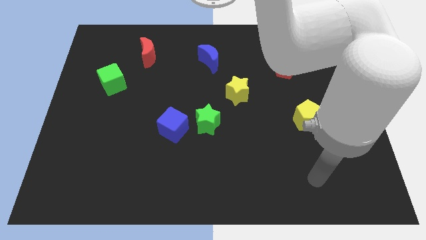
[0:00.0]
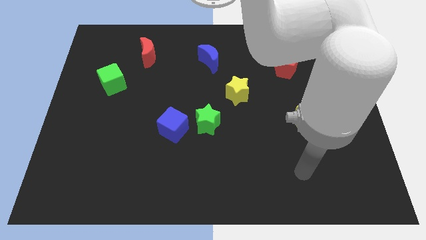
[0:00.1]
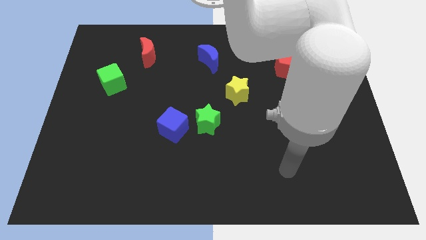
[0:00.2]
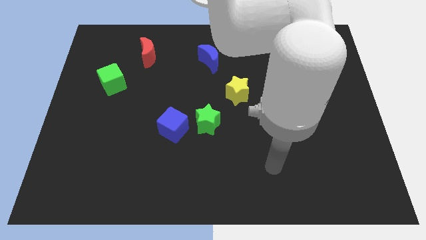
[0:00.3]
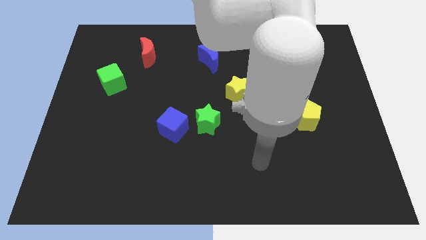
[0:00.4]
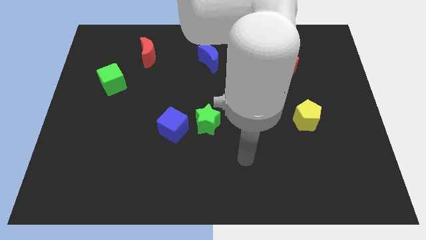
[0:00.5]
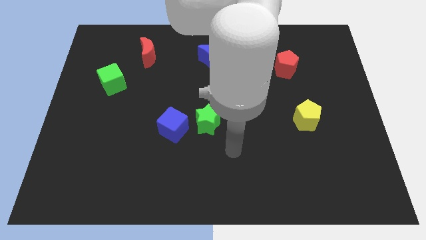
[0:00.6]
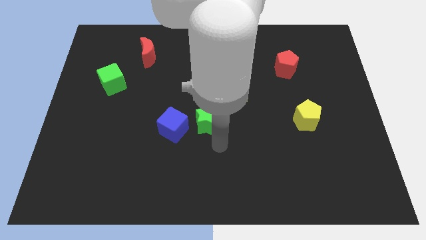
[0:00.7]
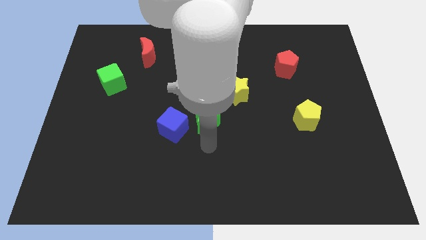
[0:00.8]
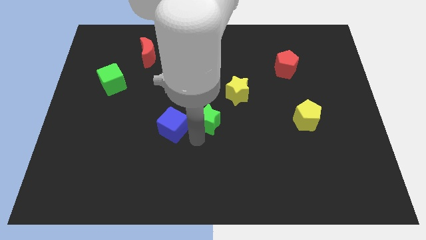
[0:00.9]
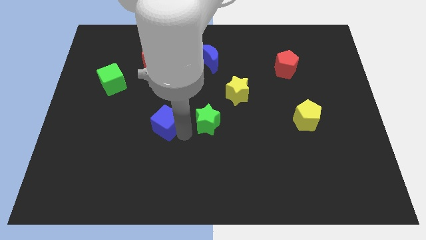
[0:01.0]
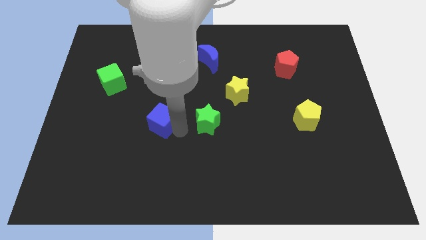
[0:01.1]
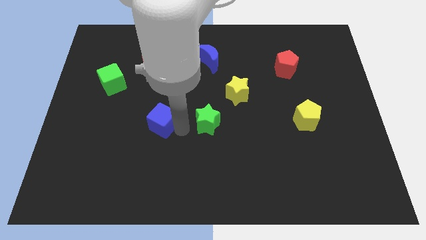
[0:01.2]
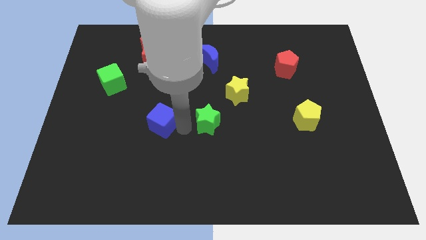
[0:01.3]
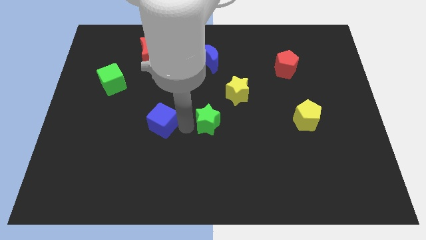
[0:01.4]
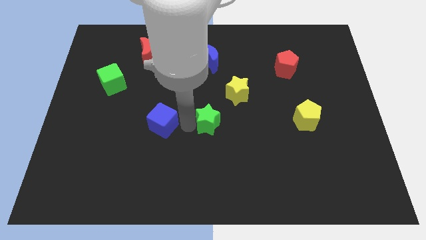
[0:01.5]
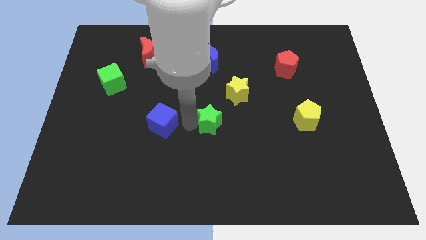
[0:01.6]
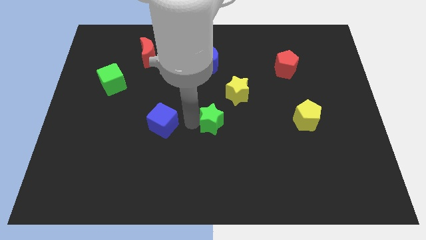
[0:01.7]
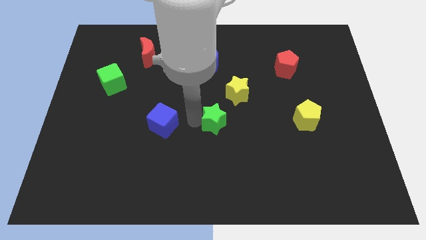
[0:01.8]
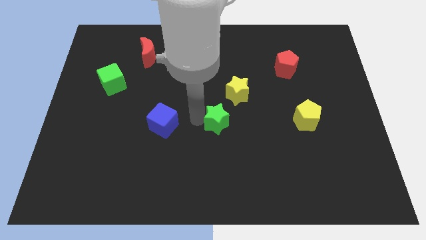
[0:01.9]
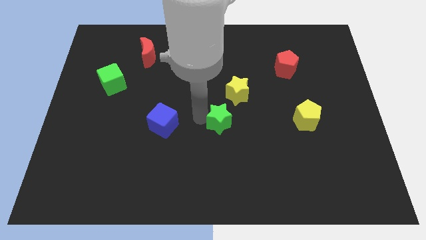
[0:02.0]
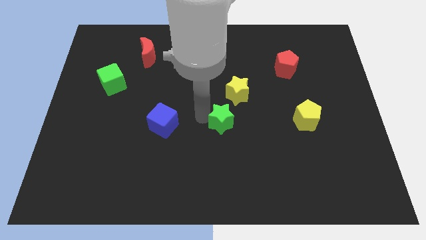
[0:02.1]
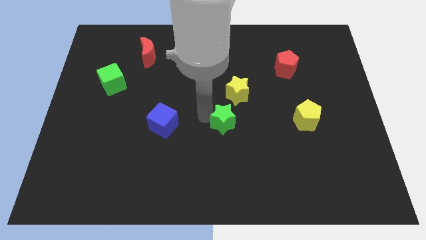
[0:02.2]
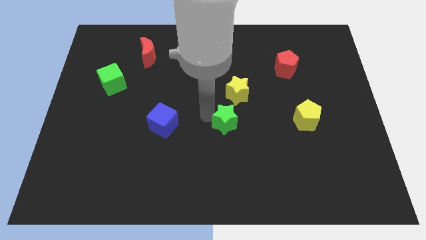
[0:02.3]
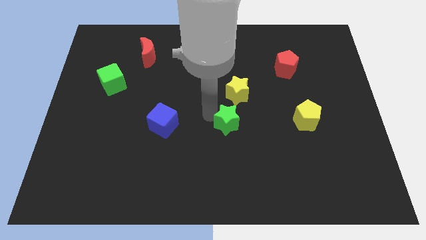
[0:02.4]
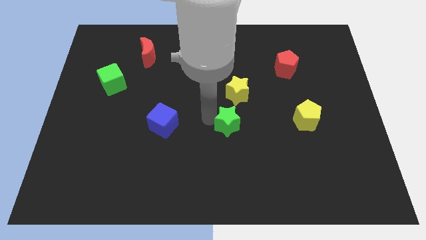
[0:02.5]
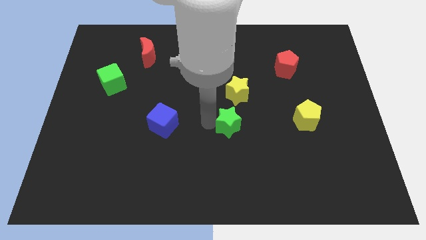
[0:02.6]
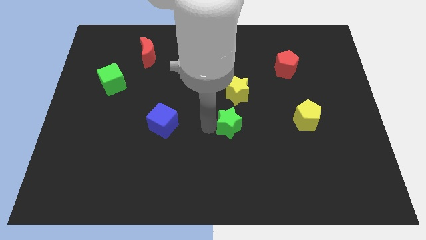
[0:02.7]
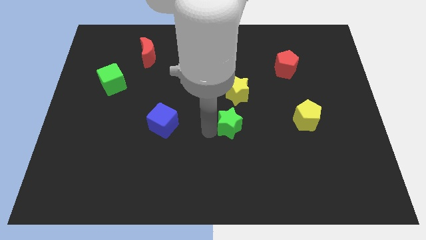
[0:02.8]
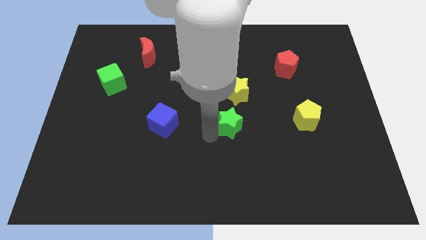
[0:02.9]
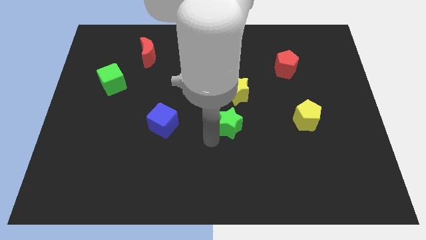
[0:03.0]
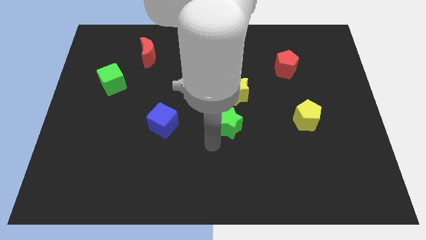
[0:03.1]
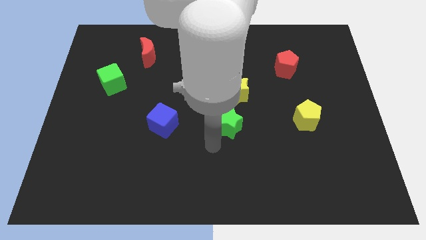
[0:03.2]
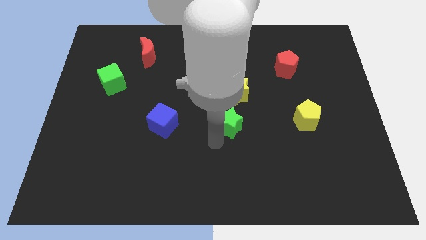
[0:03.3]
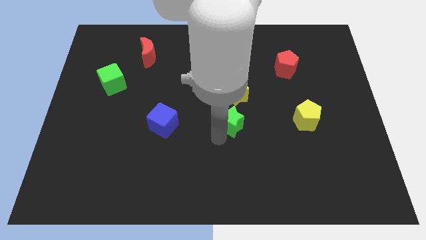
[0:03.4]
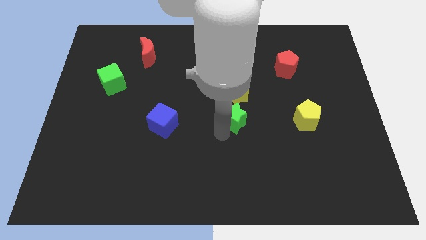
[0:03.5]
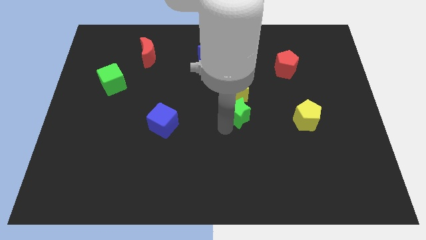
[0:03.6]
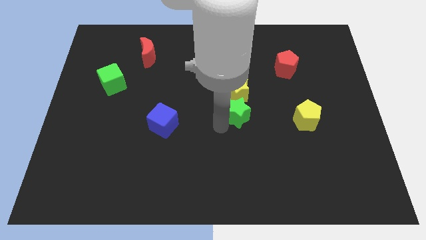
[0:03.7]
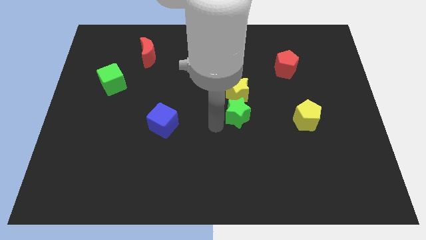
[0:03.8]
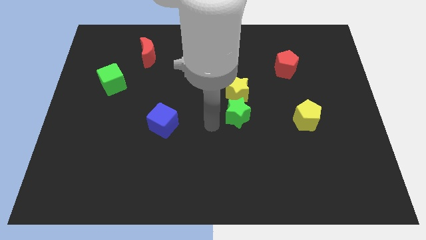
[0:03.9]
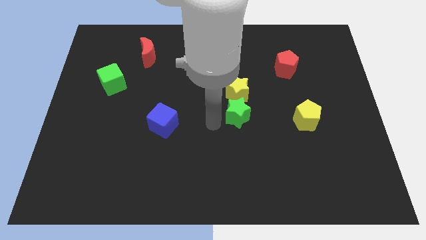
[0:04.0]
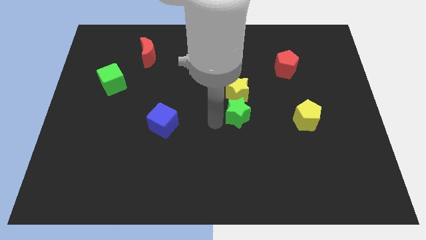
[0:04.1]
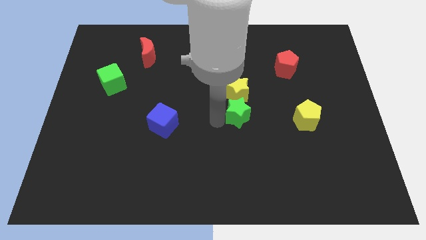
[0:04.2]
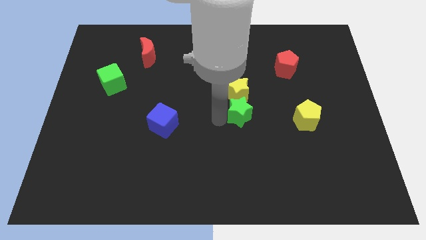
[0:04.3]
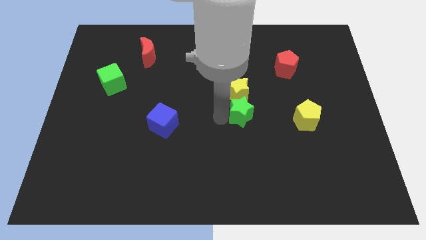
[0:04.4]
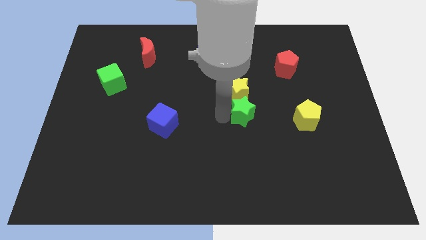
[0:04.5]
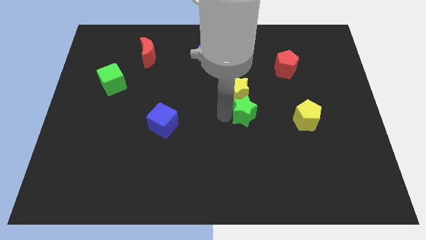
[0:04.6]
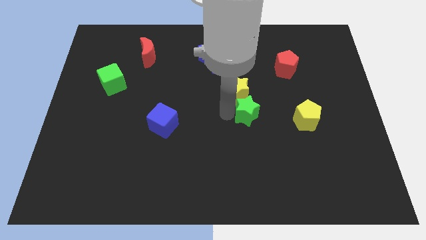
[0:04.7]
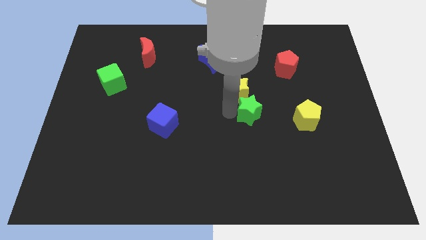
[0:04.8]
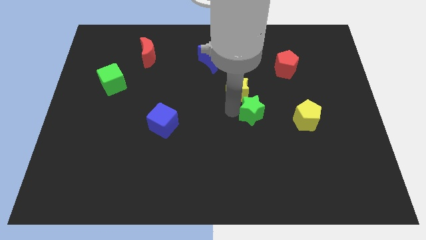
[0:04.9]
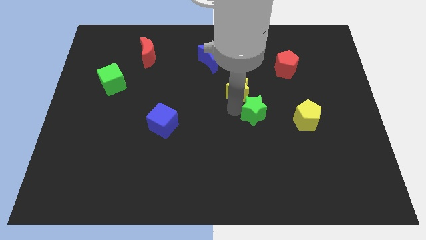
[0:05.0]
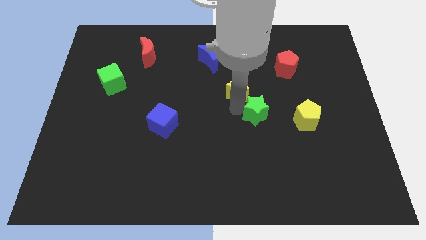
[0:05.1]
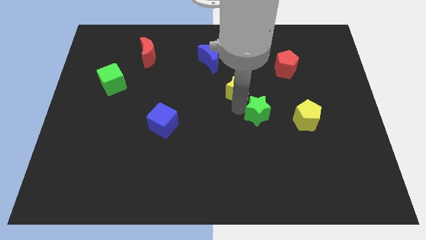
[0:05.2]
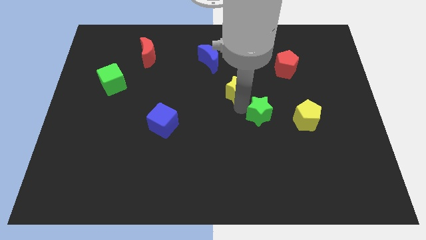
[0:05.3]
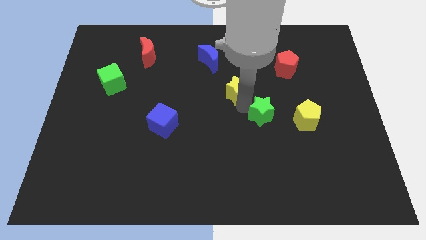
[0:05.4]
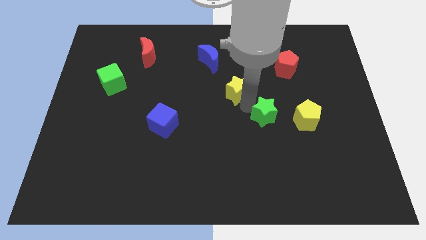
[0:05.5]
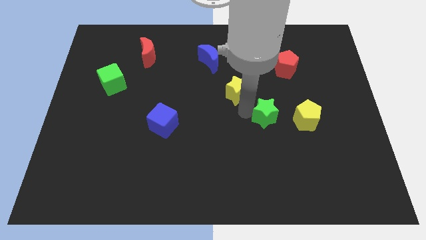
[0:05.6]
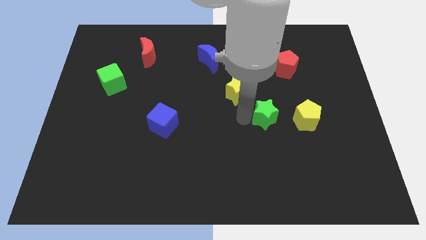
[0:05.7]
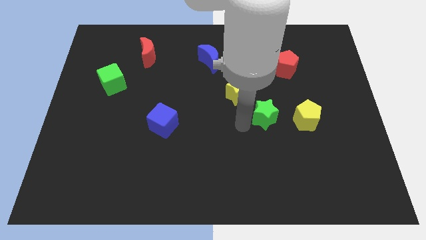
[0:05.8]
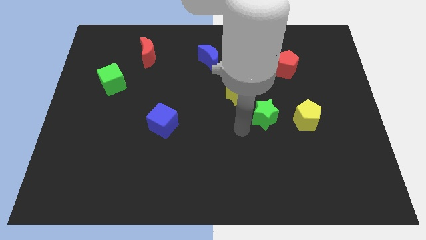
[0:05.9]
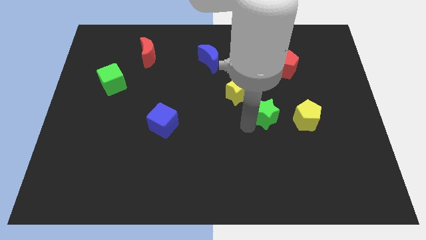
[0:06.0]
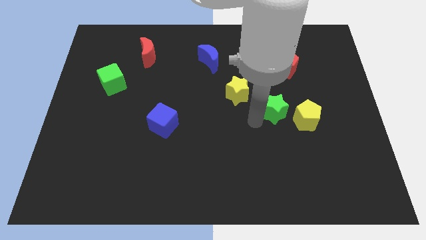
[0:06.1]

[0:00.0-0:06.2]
put the green star to the bottom side of the red pentagon
